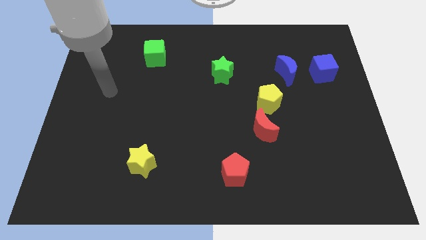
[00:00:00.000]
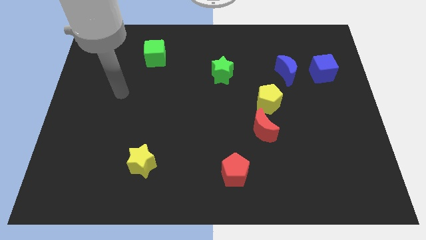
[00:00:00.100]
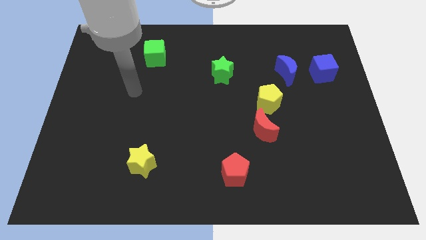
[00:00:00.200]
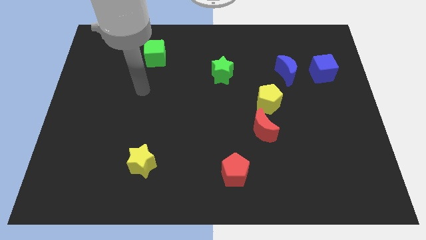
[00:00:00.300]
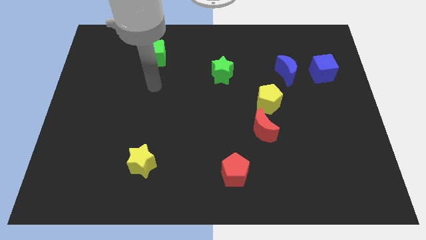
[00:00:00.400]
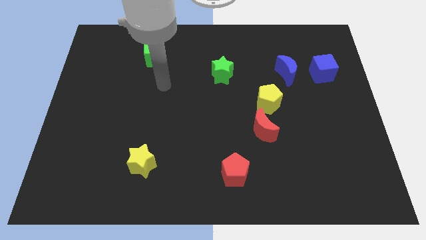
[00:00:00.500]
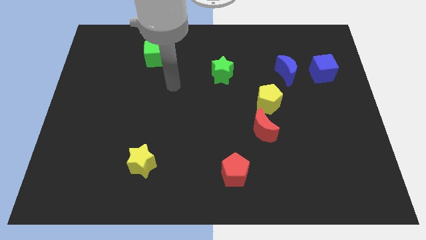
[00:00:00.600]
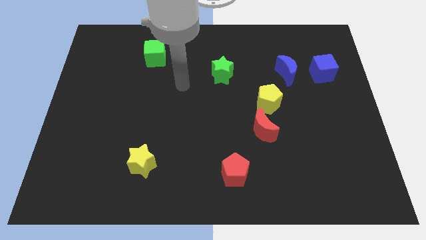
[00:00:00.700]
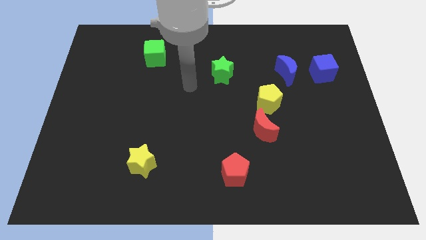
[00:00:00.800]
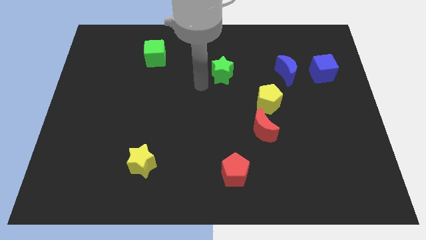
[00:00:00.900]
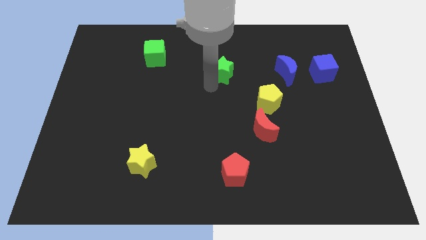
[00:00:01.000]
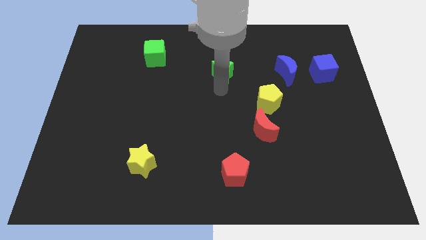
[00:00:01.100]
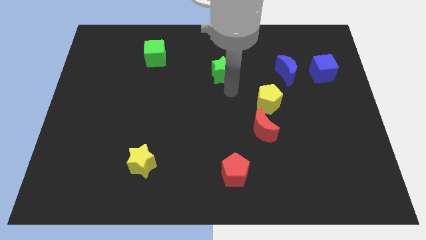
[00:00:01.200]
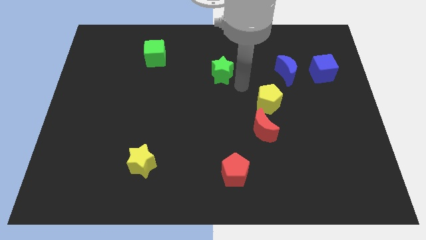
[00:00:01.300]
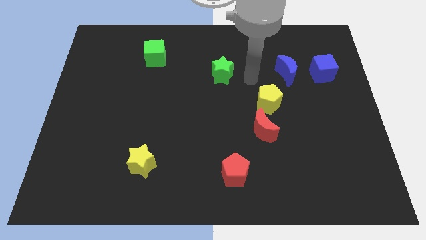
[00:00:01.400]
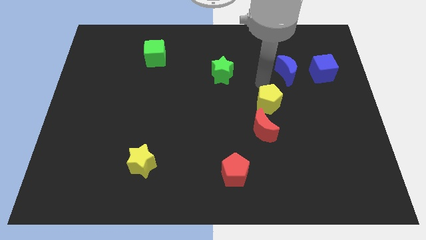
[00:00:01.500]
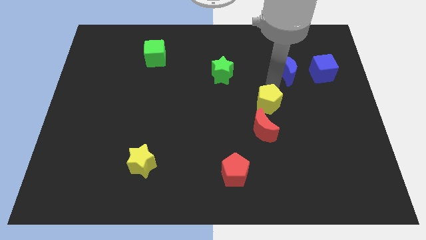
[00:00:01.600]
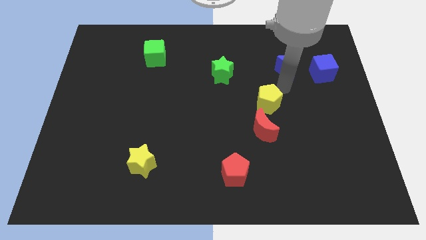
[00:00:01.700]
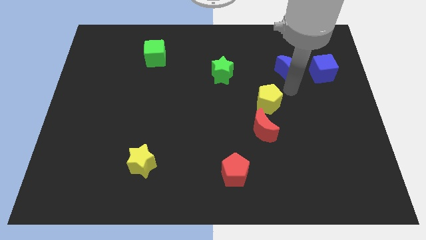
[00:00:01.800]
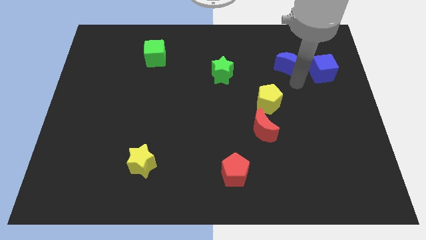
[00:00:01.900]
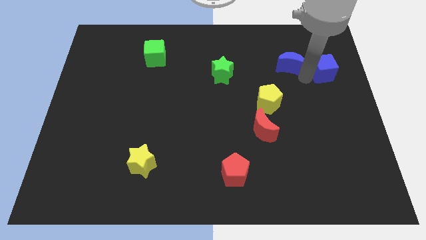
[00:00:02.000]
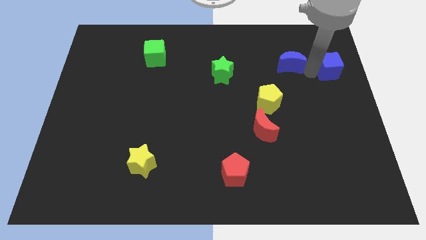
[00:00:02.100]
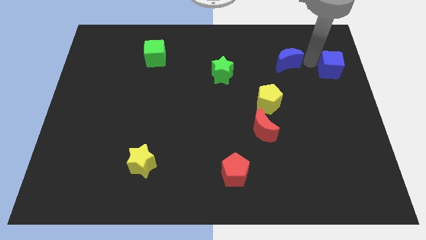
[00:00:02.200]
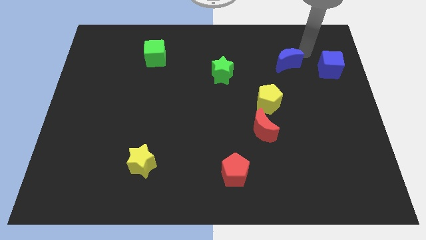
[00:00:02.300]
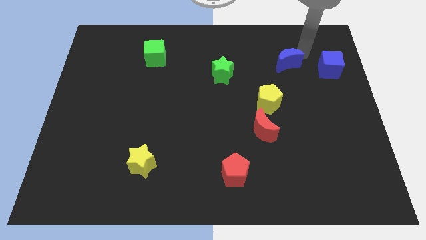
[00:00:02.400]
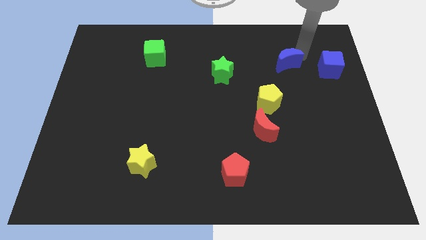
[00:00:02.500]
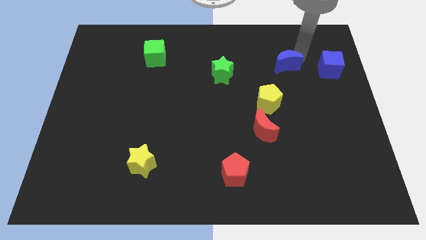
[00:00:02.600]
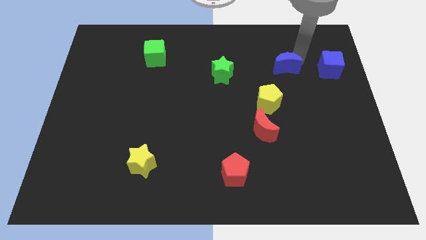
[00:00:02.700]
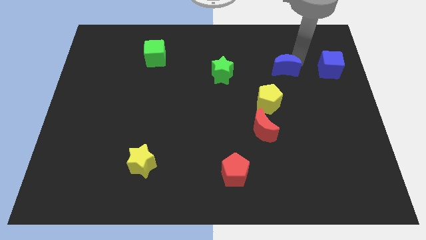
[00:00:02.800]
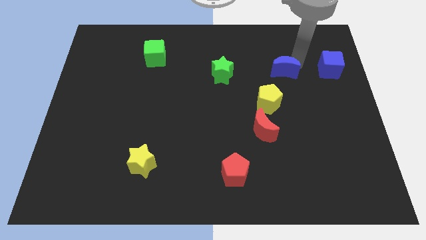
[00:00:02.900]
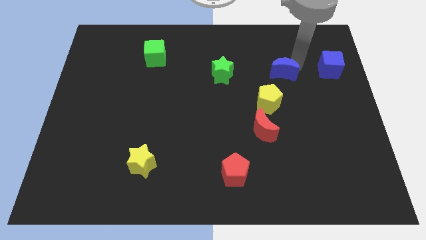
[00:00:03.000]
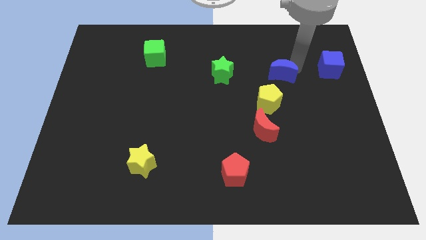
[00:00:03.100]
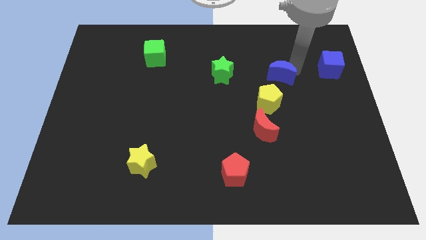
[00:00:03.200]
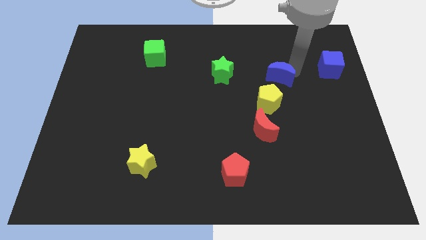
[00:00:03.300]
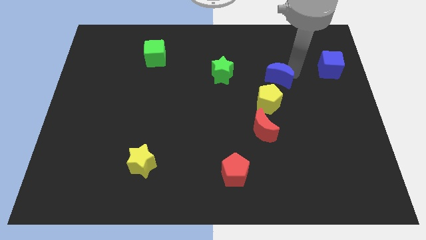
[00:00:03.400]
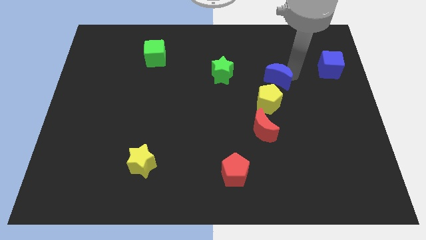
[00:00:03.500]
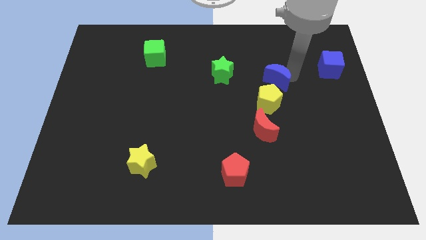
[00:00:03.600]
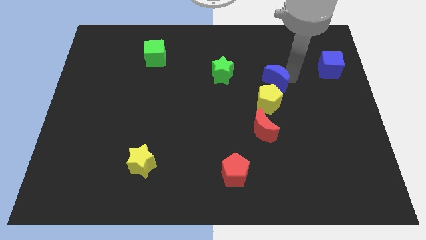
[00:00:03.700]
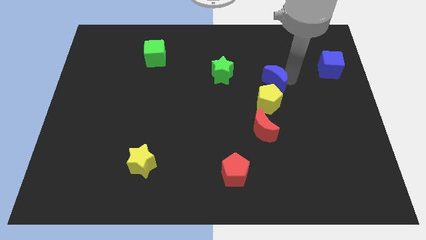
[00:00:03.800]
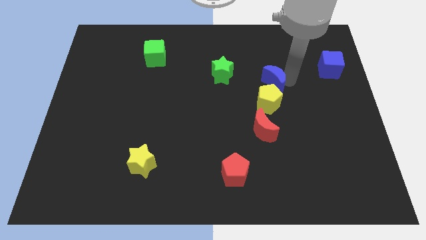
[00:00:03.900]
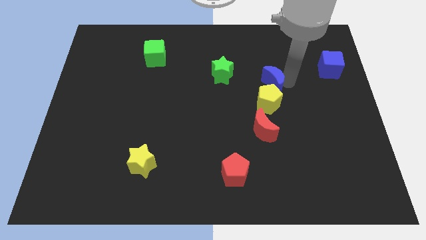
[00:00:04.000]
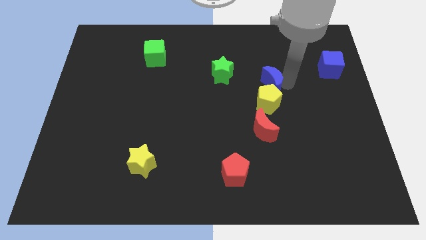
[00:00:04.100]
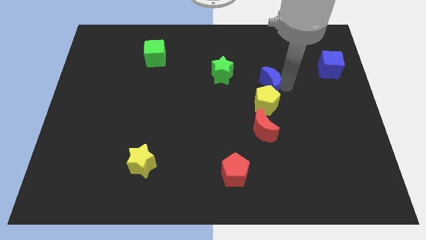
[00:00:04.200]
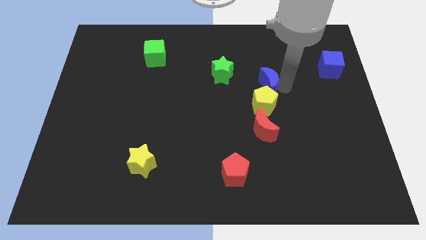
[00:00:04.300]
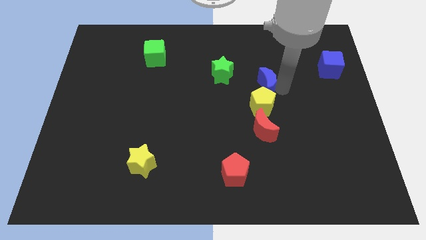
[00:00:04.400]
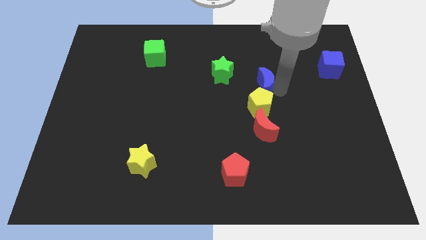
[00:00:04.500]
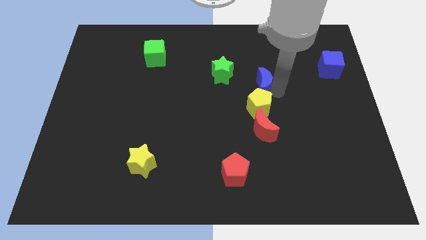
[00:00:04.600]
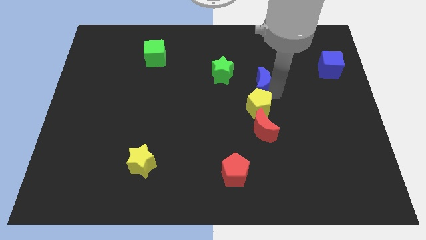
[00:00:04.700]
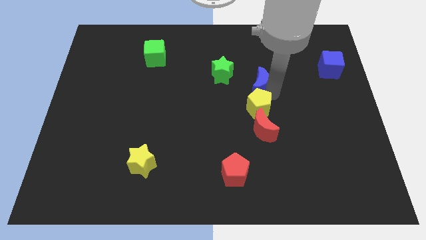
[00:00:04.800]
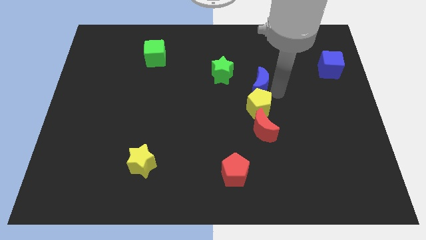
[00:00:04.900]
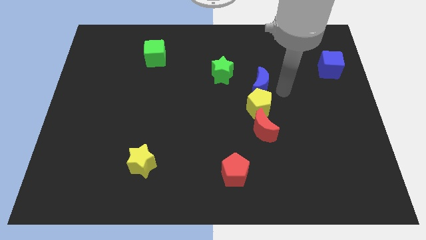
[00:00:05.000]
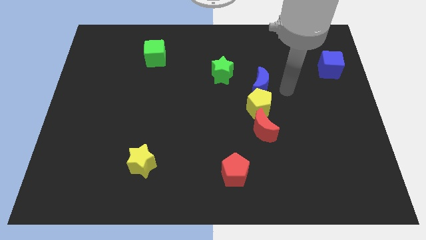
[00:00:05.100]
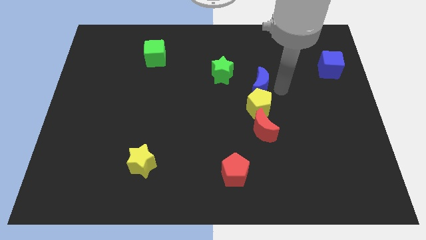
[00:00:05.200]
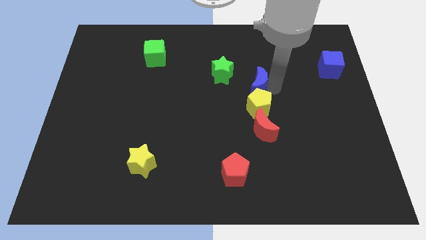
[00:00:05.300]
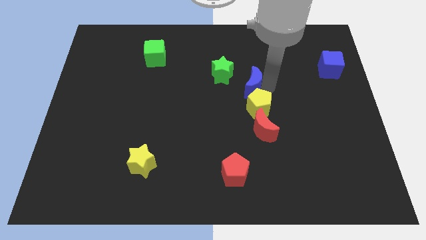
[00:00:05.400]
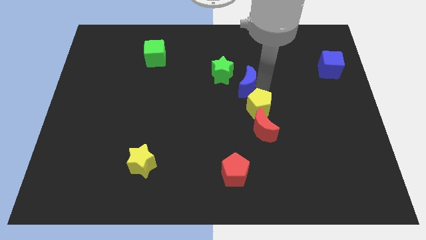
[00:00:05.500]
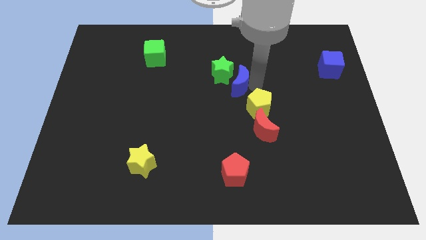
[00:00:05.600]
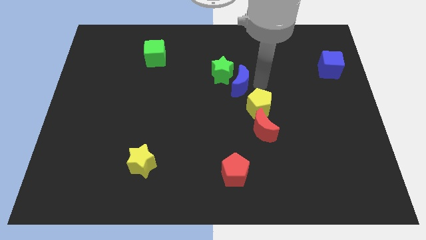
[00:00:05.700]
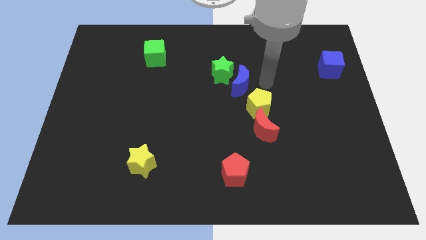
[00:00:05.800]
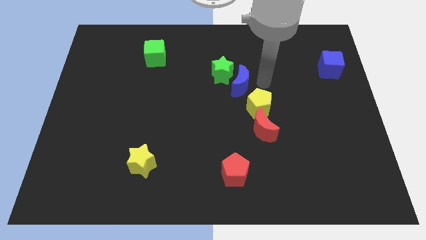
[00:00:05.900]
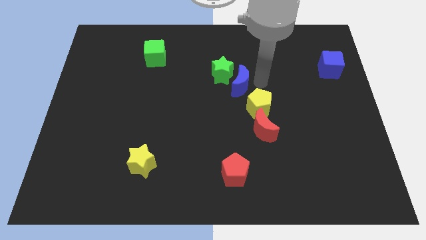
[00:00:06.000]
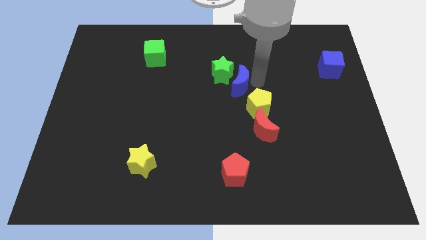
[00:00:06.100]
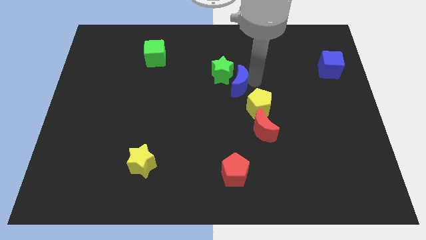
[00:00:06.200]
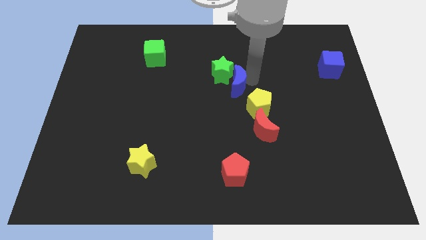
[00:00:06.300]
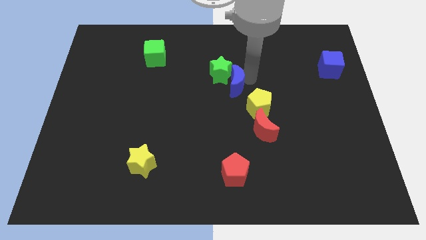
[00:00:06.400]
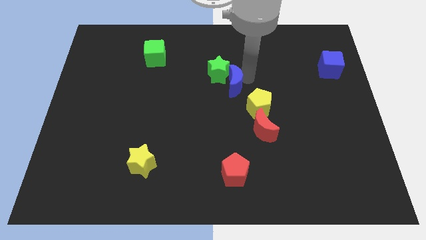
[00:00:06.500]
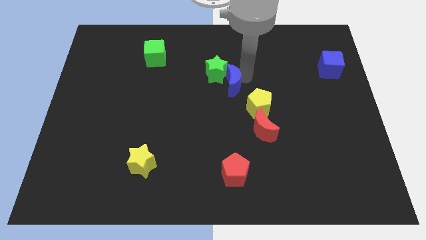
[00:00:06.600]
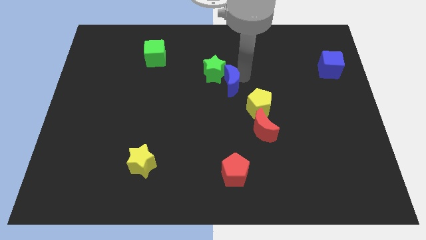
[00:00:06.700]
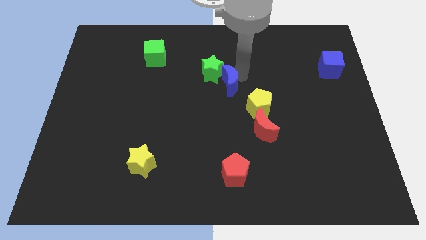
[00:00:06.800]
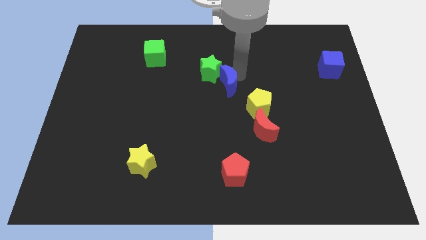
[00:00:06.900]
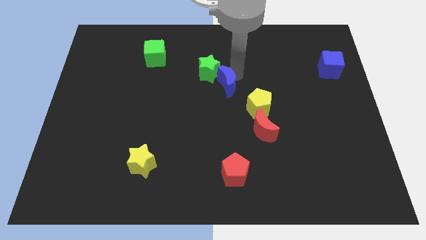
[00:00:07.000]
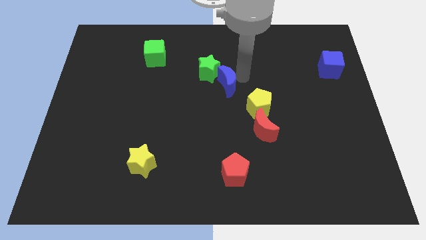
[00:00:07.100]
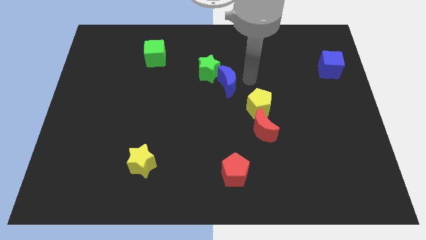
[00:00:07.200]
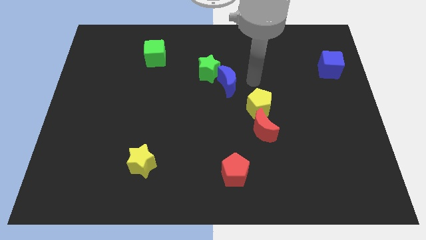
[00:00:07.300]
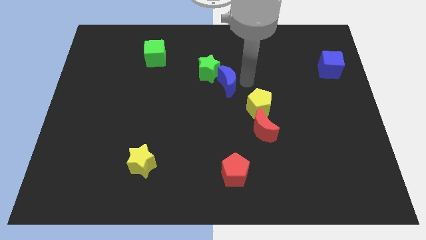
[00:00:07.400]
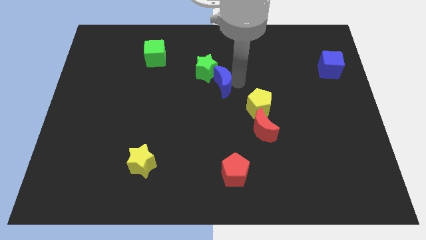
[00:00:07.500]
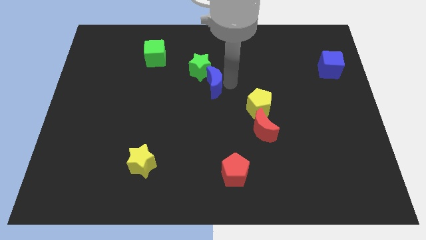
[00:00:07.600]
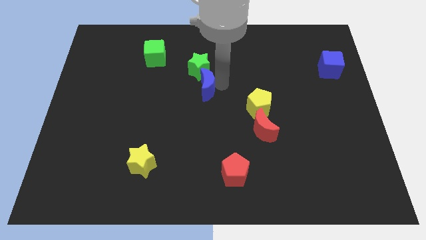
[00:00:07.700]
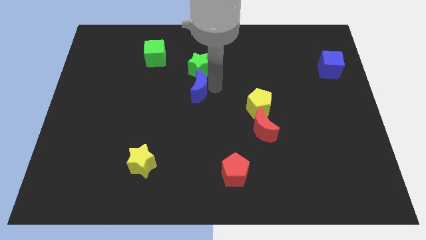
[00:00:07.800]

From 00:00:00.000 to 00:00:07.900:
put the blue moon to the bottom left side of the green star
